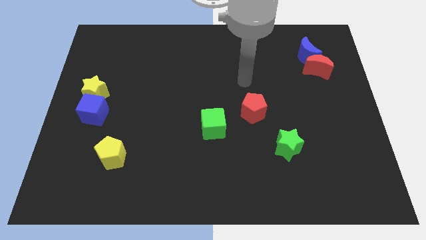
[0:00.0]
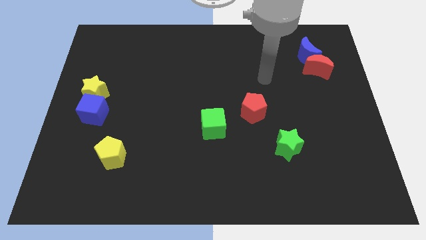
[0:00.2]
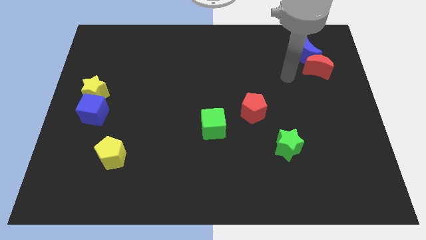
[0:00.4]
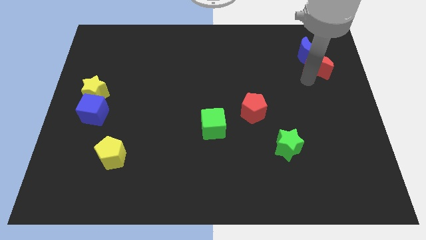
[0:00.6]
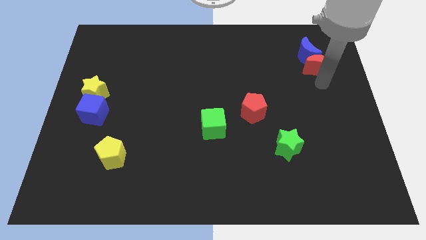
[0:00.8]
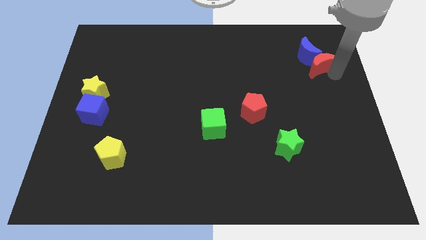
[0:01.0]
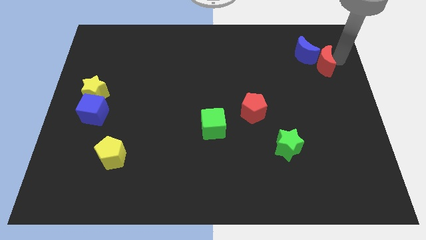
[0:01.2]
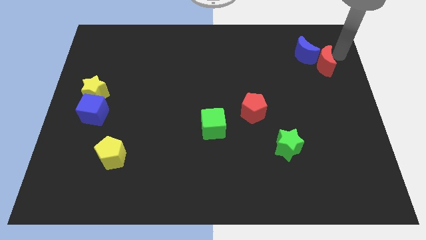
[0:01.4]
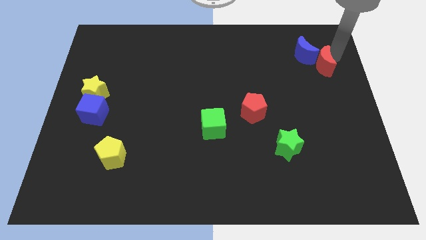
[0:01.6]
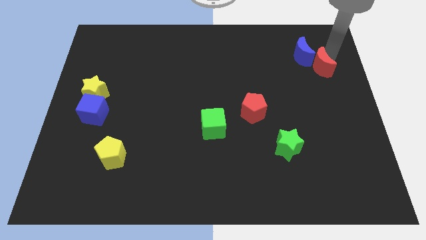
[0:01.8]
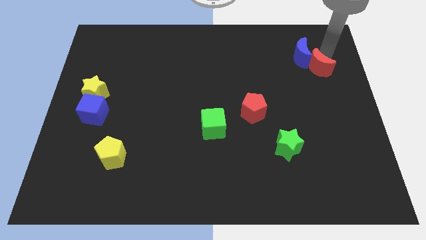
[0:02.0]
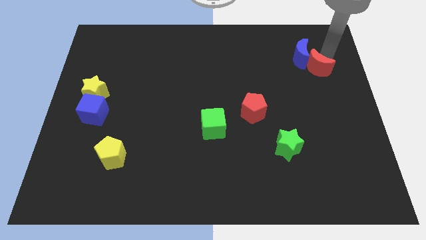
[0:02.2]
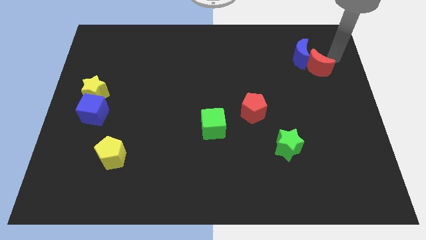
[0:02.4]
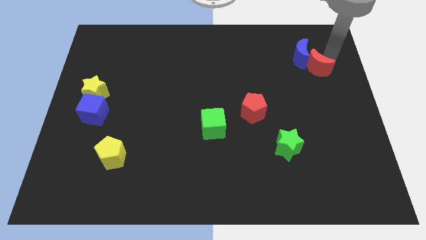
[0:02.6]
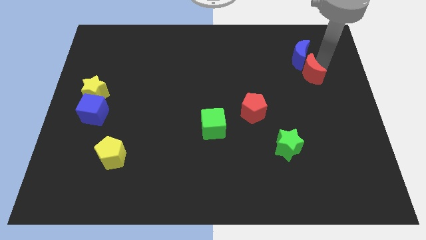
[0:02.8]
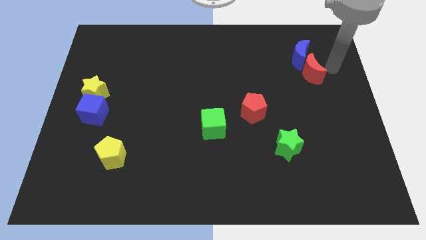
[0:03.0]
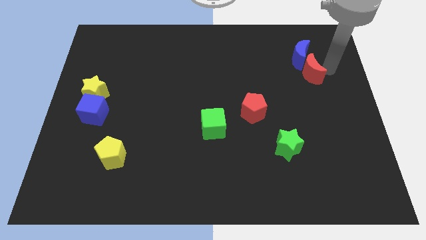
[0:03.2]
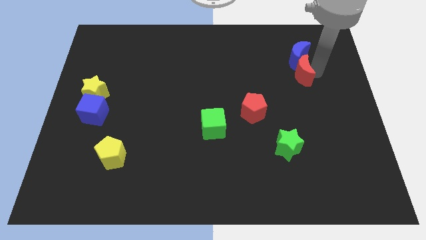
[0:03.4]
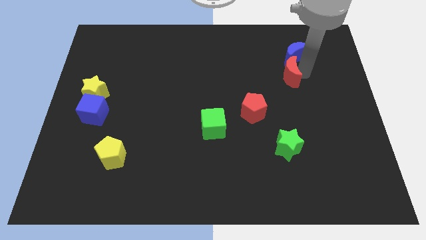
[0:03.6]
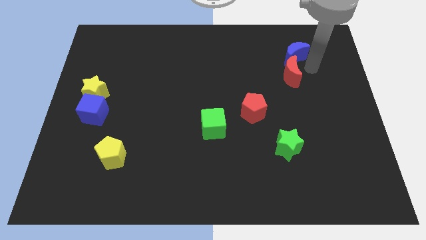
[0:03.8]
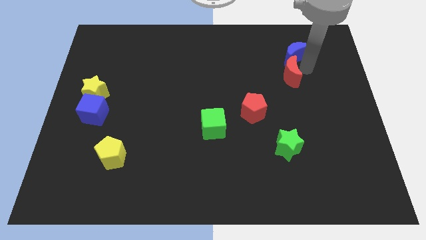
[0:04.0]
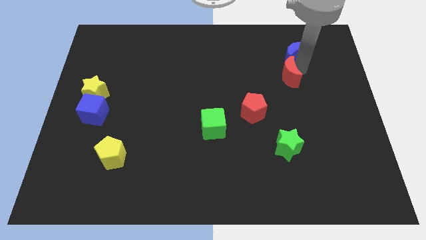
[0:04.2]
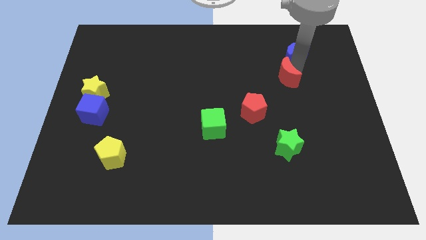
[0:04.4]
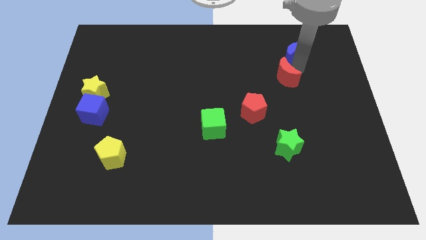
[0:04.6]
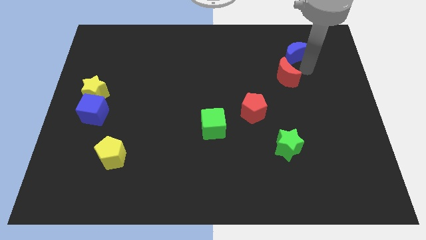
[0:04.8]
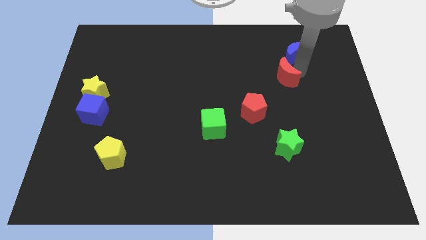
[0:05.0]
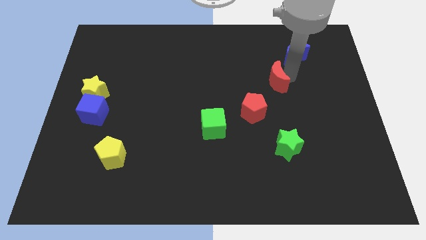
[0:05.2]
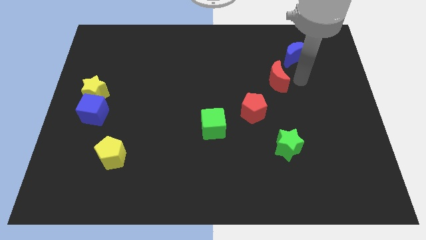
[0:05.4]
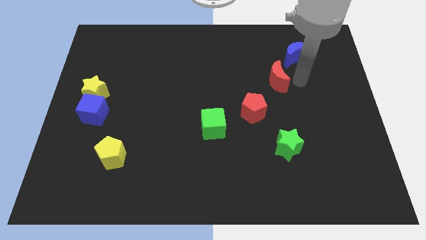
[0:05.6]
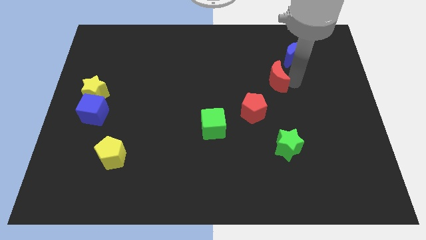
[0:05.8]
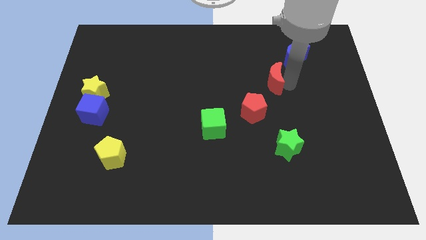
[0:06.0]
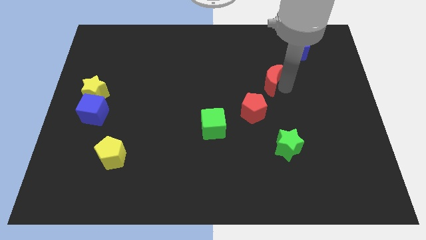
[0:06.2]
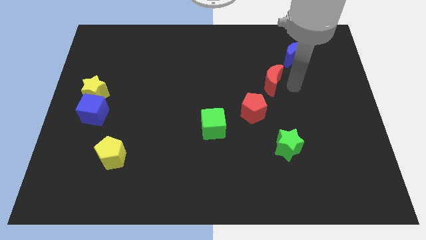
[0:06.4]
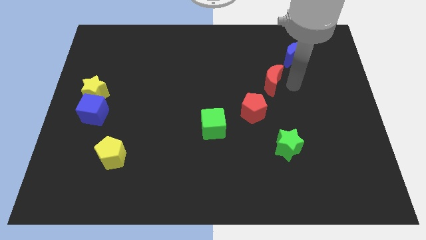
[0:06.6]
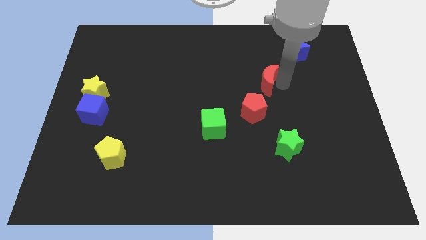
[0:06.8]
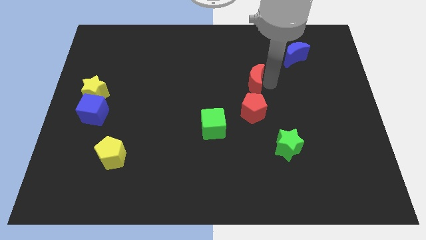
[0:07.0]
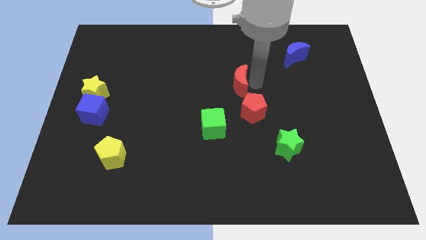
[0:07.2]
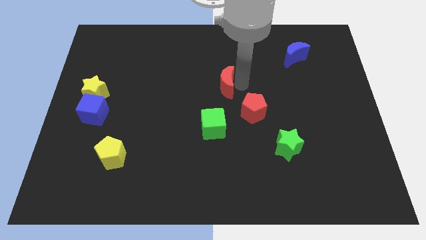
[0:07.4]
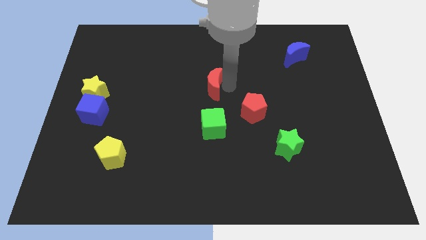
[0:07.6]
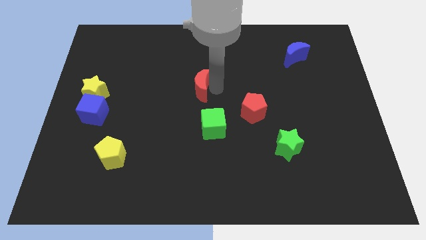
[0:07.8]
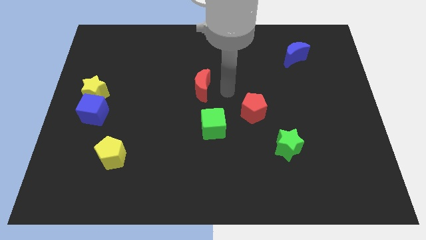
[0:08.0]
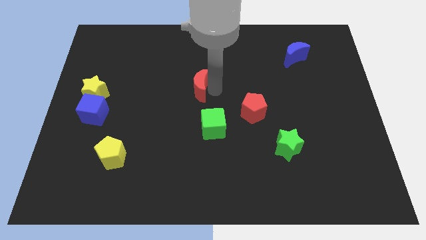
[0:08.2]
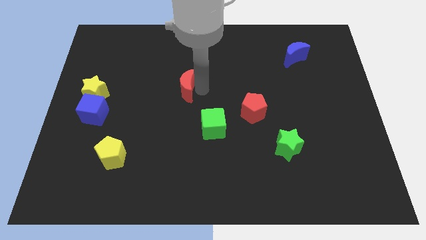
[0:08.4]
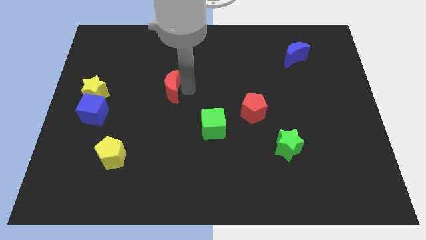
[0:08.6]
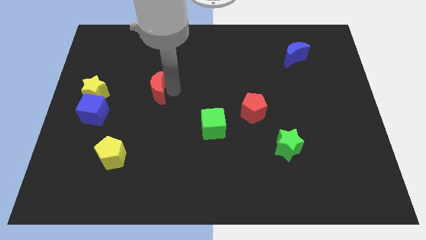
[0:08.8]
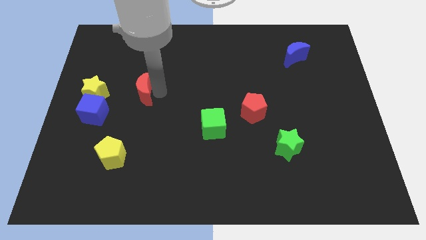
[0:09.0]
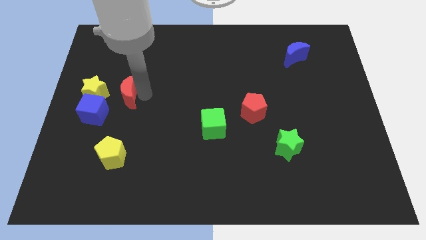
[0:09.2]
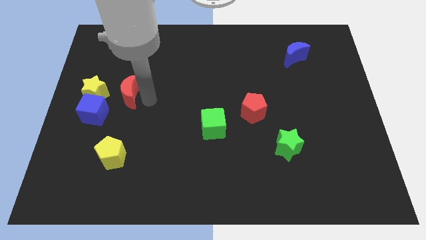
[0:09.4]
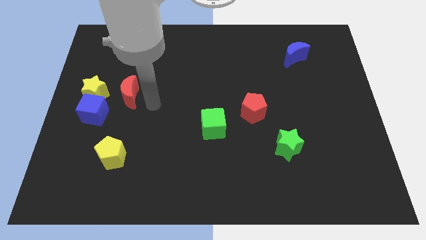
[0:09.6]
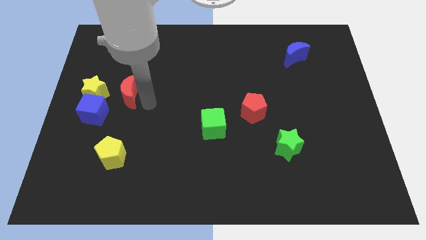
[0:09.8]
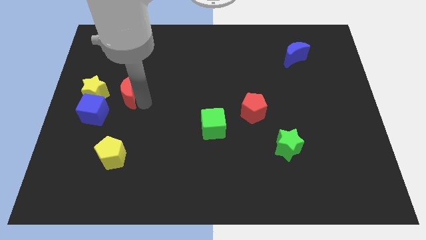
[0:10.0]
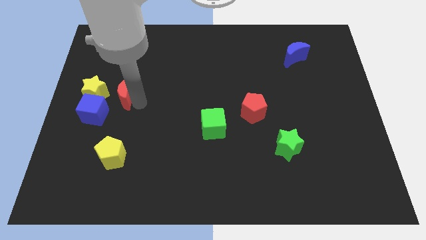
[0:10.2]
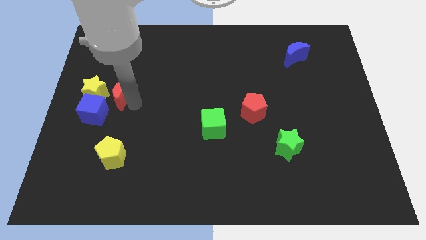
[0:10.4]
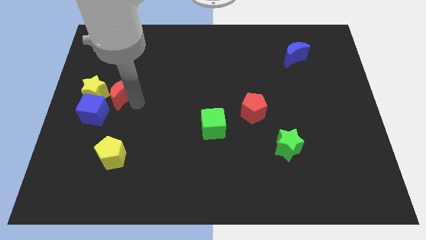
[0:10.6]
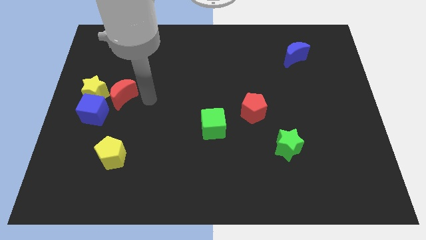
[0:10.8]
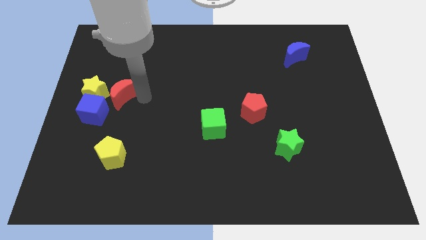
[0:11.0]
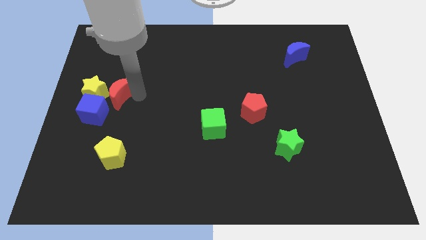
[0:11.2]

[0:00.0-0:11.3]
put the red moon next to the yellow star

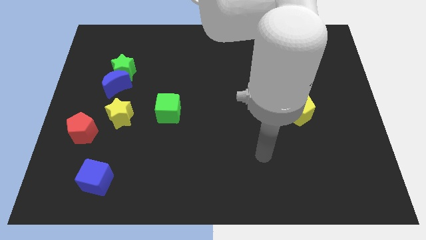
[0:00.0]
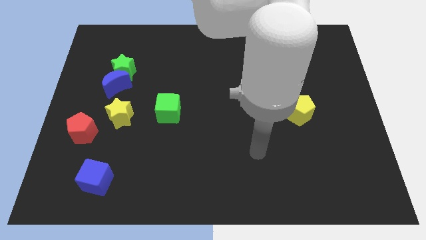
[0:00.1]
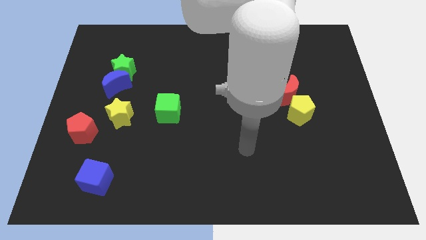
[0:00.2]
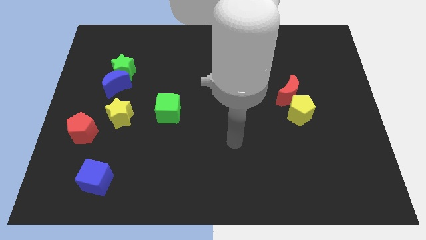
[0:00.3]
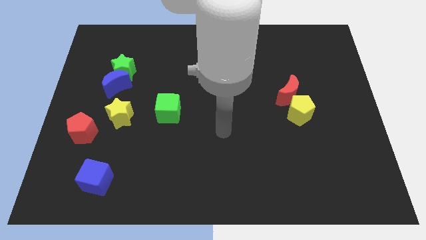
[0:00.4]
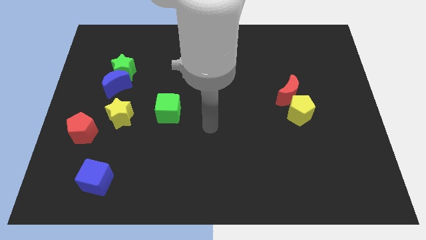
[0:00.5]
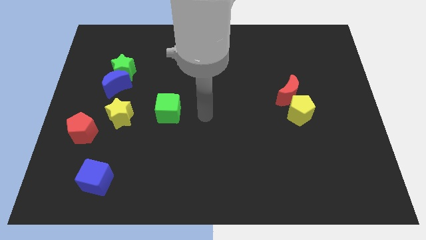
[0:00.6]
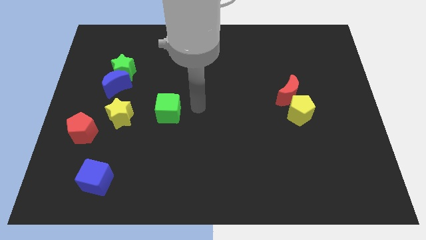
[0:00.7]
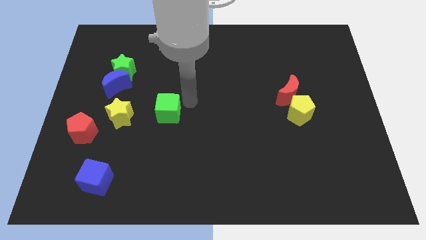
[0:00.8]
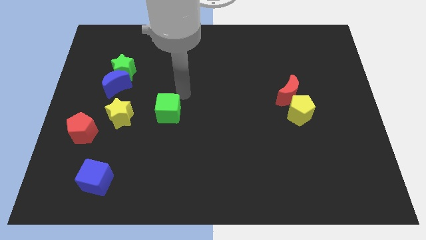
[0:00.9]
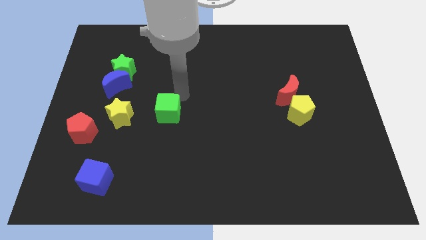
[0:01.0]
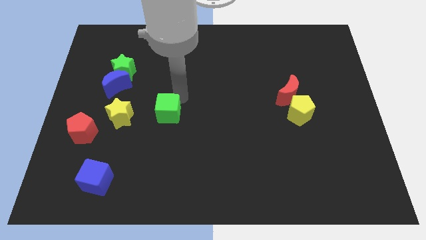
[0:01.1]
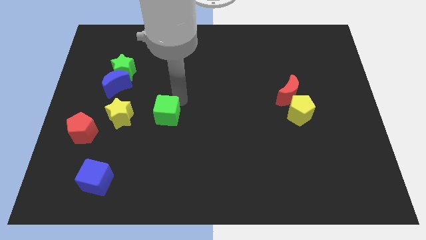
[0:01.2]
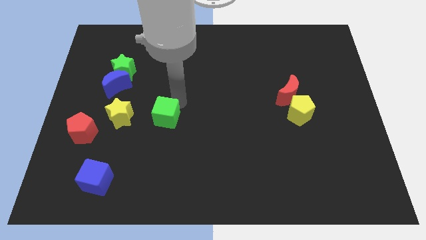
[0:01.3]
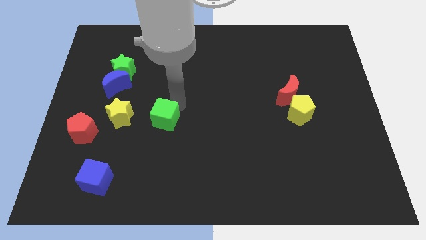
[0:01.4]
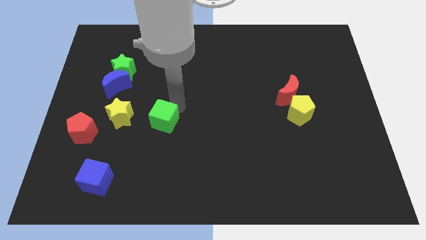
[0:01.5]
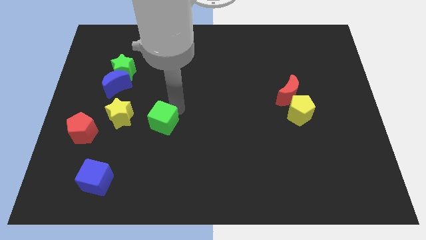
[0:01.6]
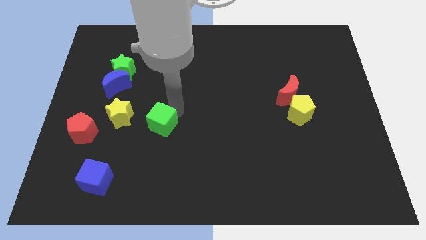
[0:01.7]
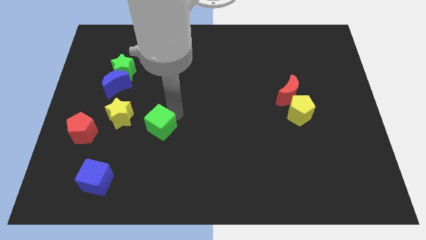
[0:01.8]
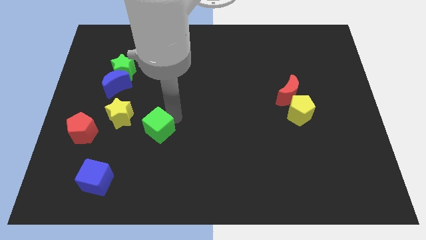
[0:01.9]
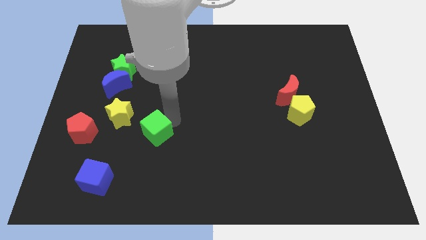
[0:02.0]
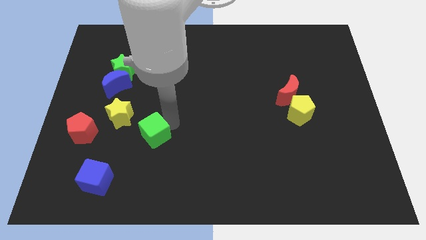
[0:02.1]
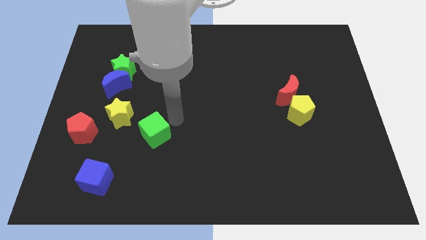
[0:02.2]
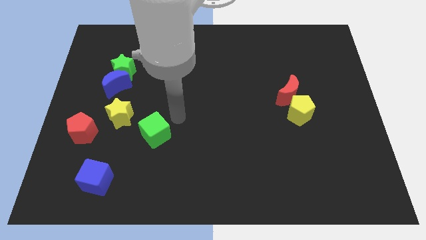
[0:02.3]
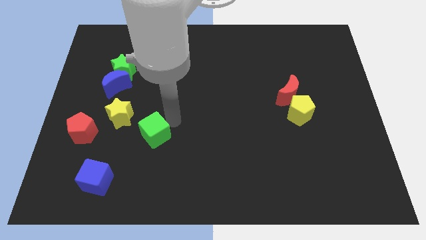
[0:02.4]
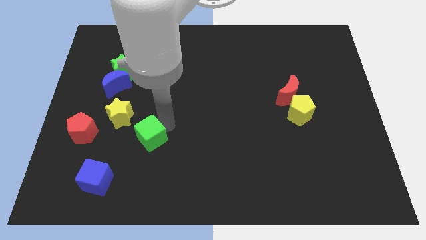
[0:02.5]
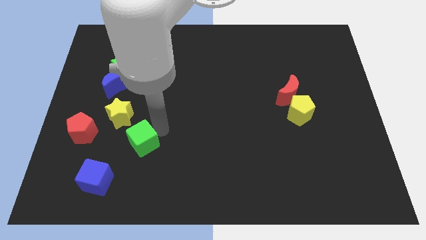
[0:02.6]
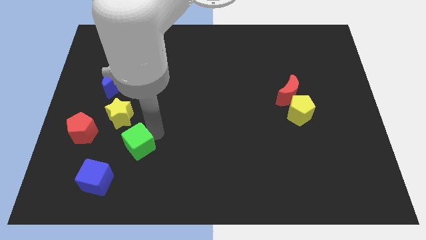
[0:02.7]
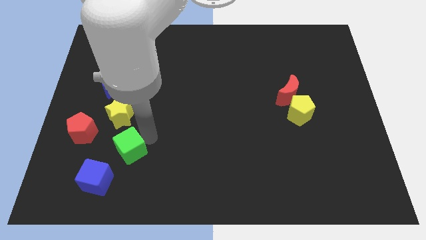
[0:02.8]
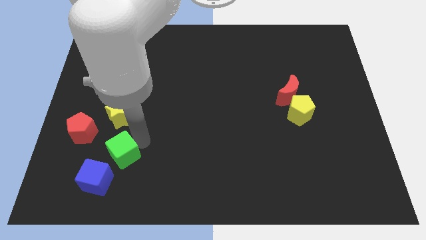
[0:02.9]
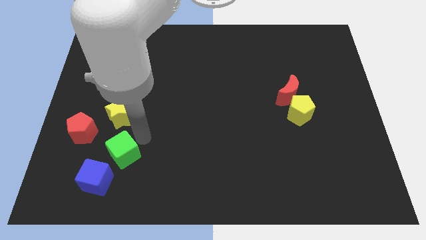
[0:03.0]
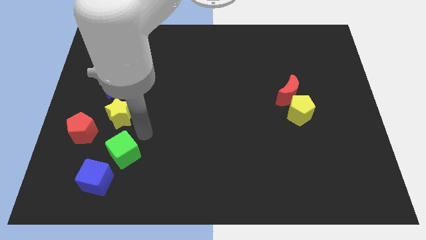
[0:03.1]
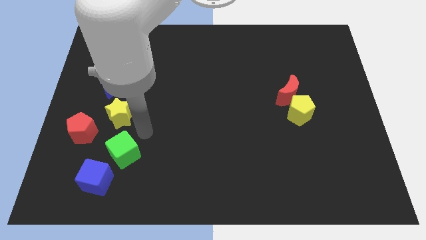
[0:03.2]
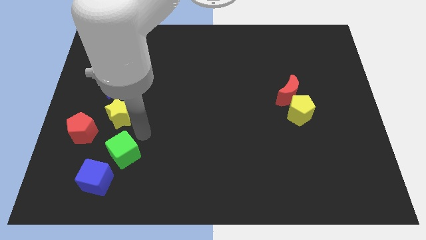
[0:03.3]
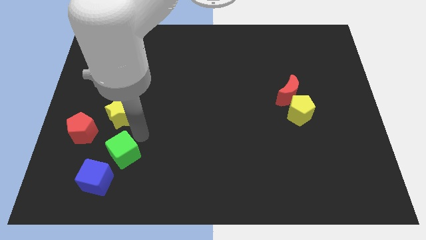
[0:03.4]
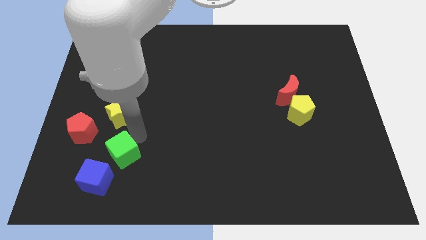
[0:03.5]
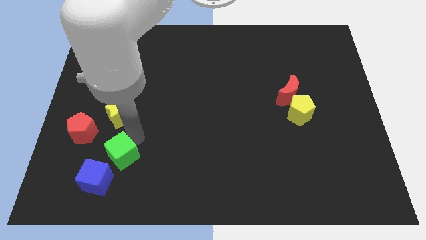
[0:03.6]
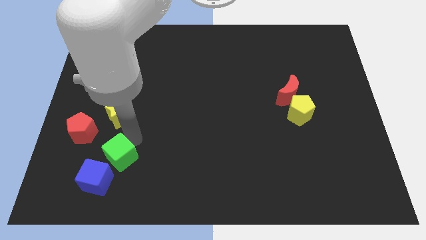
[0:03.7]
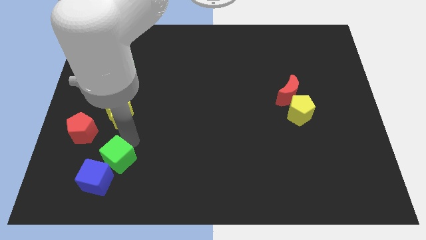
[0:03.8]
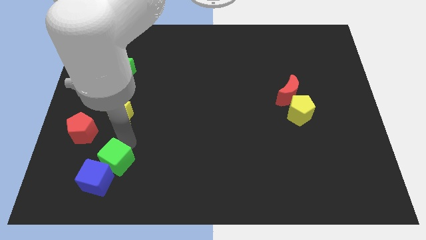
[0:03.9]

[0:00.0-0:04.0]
put the green cube close to the blue cube
